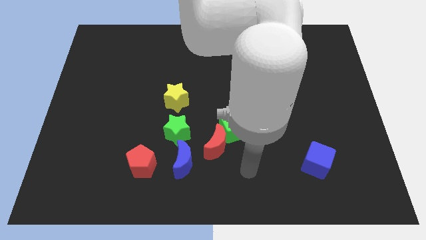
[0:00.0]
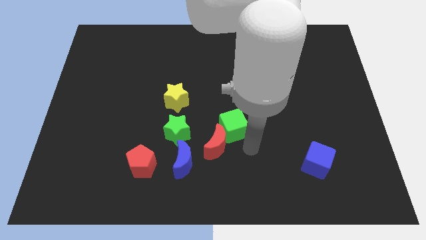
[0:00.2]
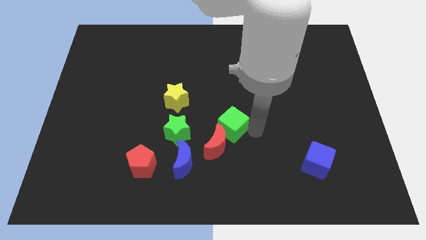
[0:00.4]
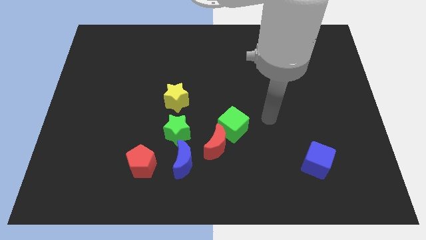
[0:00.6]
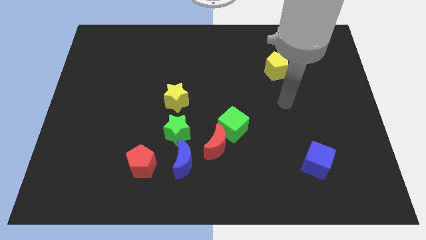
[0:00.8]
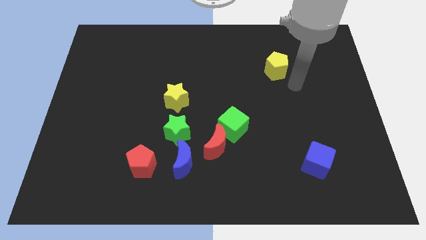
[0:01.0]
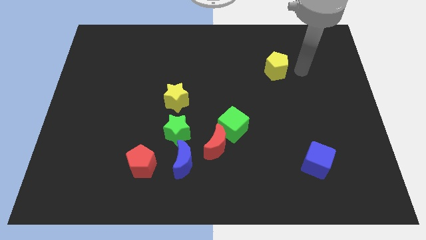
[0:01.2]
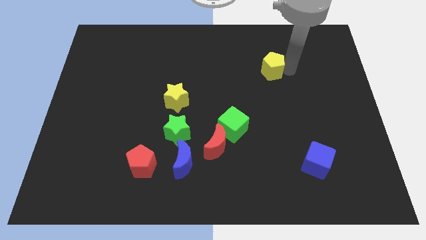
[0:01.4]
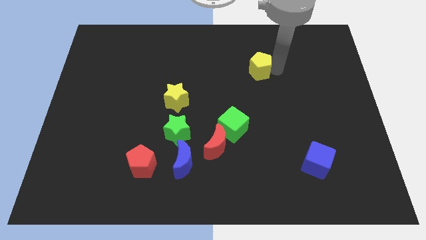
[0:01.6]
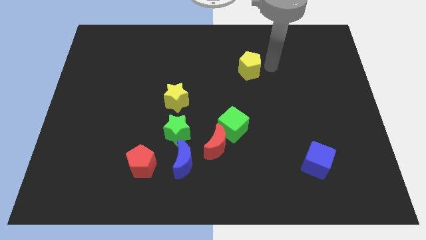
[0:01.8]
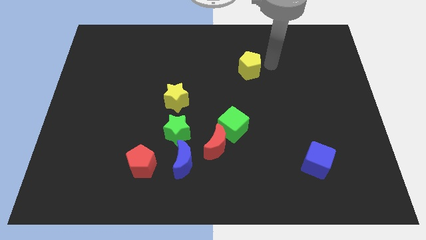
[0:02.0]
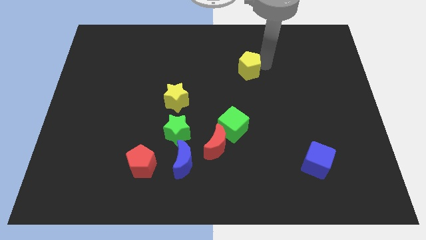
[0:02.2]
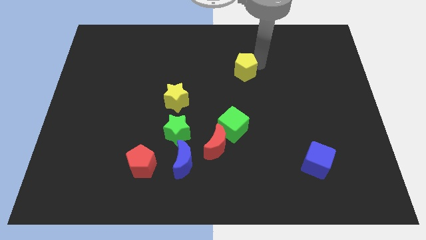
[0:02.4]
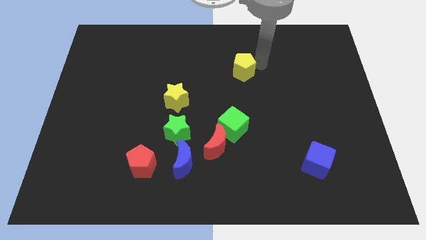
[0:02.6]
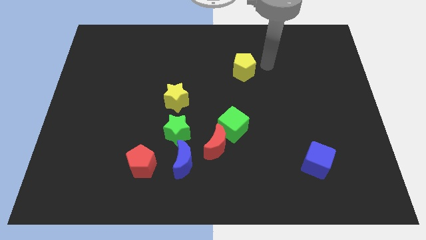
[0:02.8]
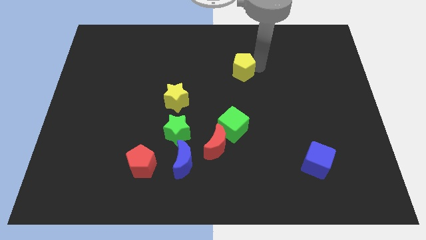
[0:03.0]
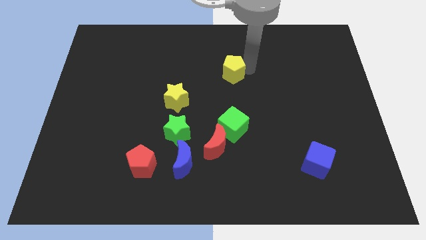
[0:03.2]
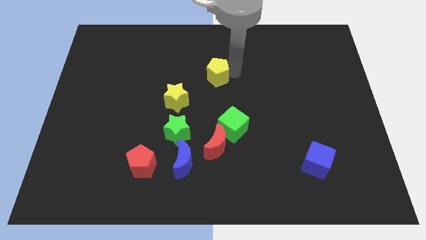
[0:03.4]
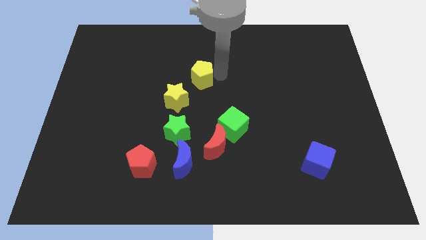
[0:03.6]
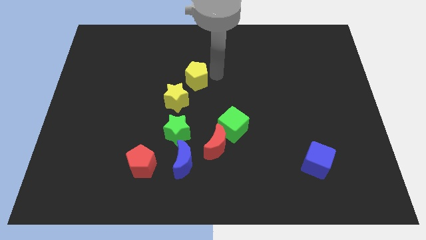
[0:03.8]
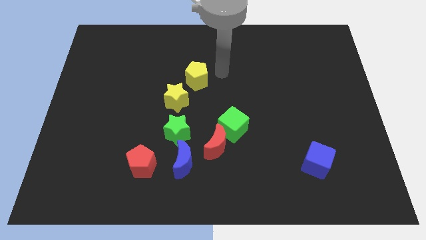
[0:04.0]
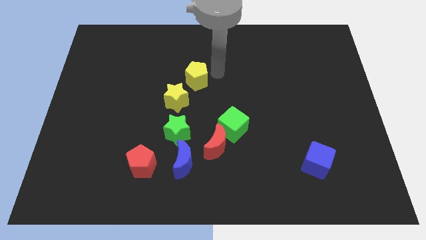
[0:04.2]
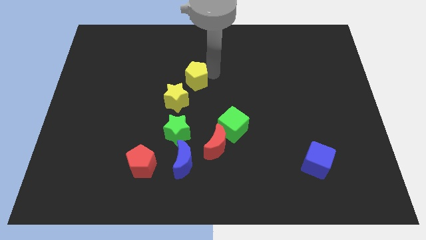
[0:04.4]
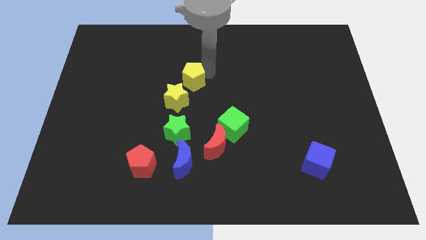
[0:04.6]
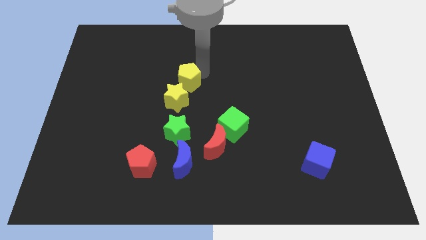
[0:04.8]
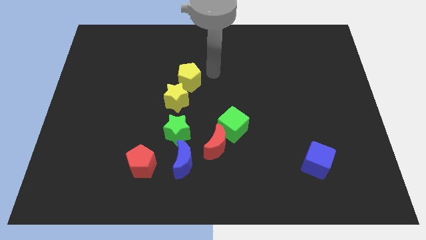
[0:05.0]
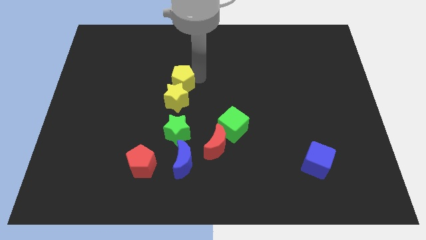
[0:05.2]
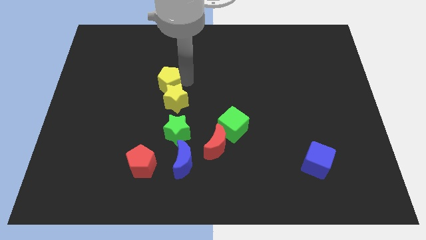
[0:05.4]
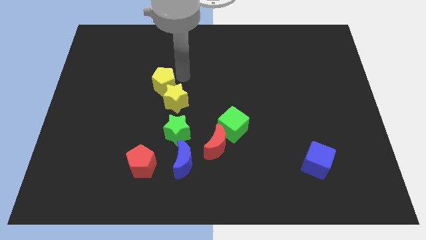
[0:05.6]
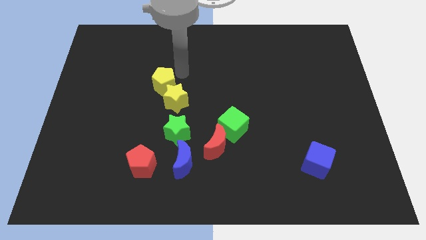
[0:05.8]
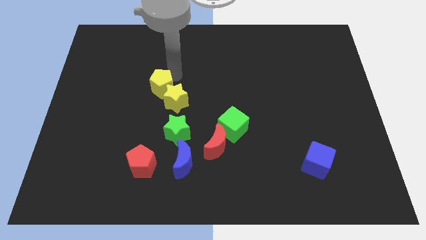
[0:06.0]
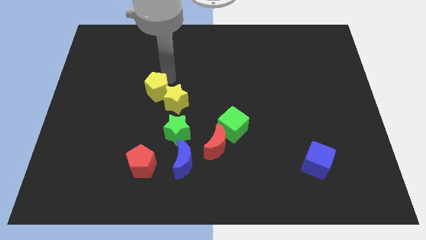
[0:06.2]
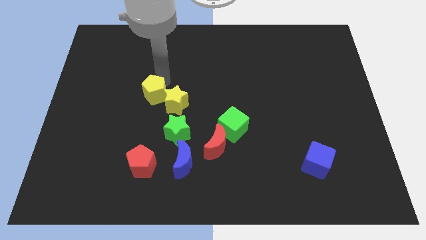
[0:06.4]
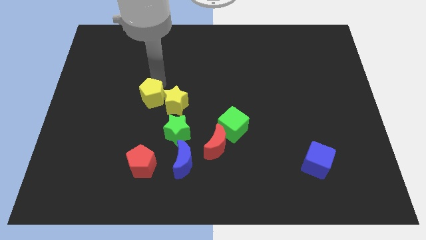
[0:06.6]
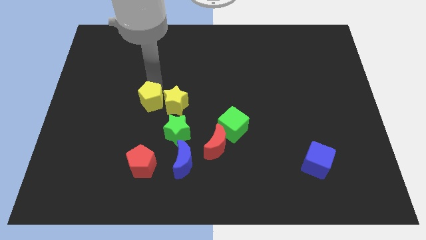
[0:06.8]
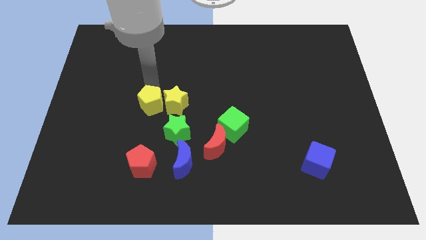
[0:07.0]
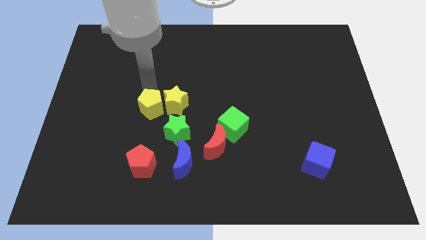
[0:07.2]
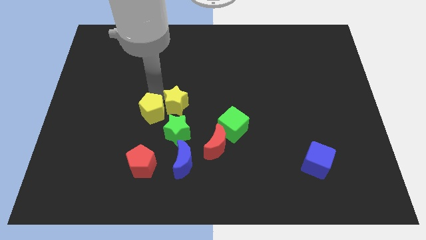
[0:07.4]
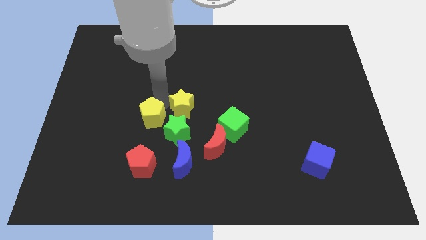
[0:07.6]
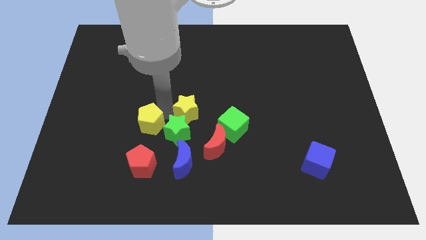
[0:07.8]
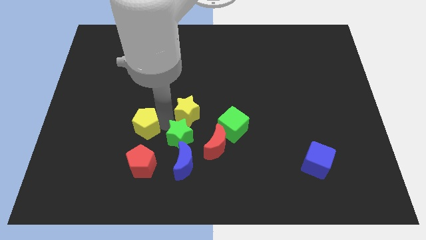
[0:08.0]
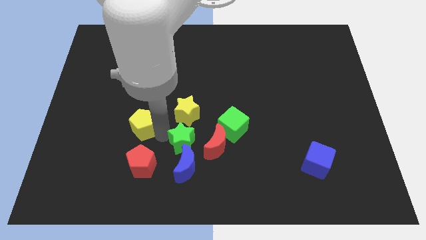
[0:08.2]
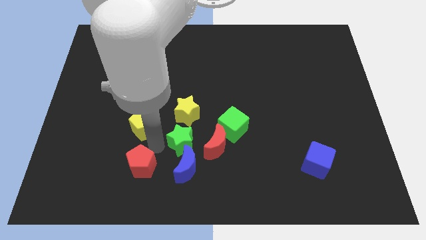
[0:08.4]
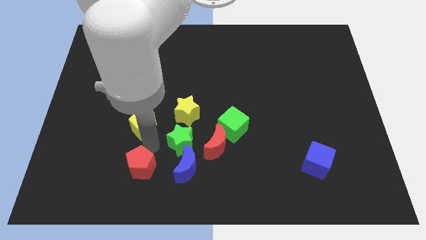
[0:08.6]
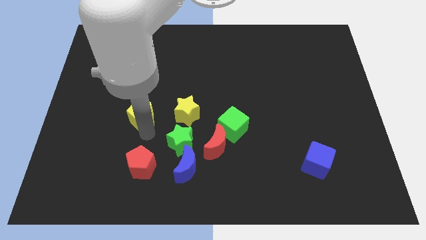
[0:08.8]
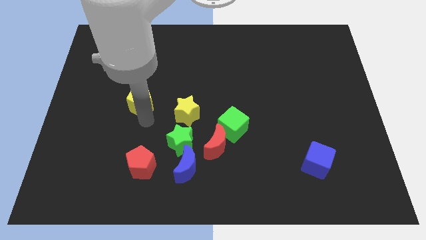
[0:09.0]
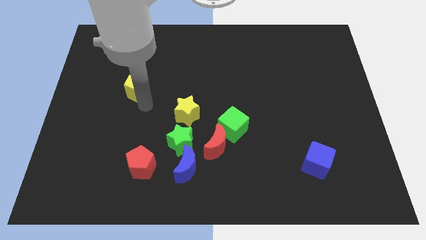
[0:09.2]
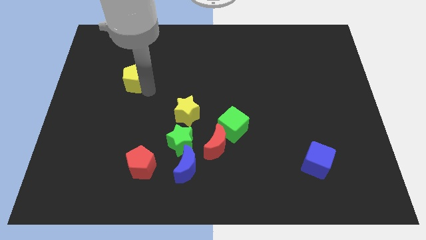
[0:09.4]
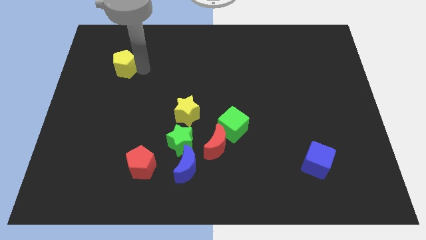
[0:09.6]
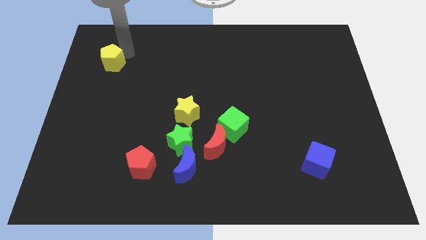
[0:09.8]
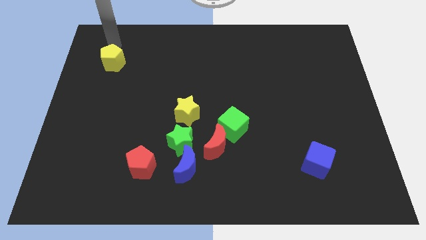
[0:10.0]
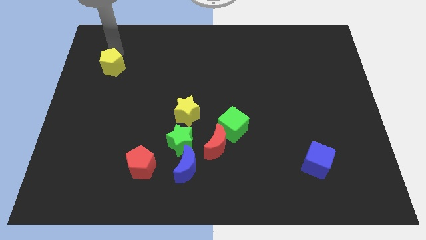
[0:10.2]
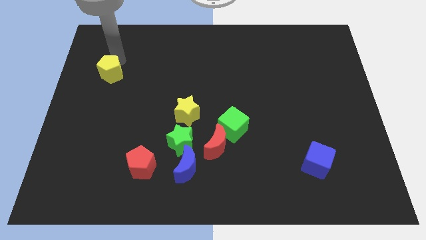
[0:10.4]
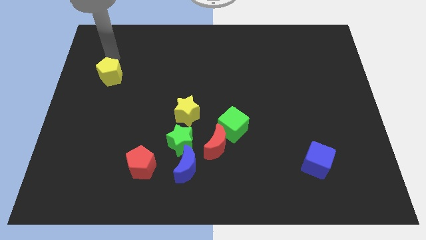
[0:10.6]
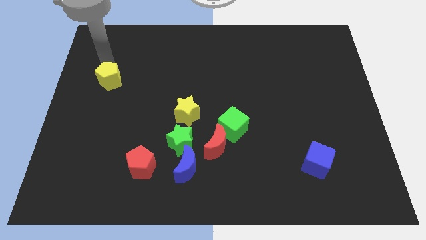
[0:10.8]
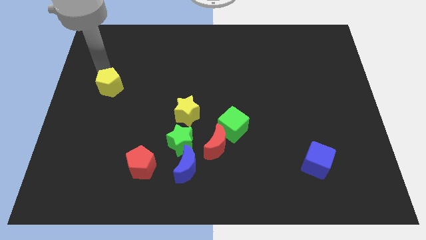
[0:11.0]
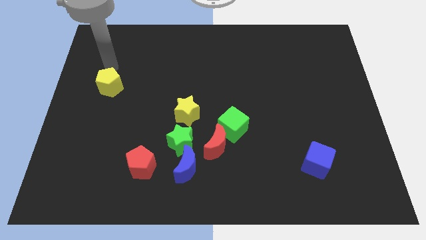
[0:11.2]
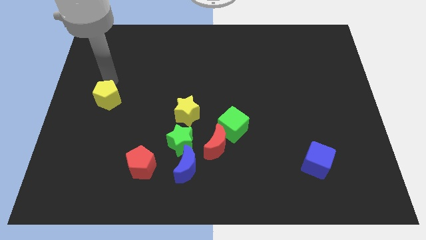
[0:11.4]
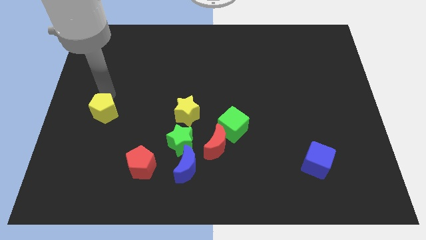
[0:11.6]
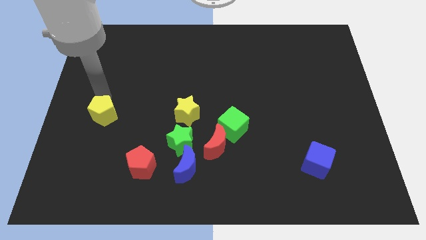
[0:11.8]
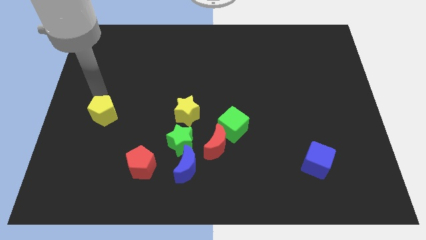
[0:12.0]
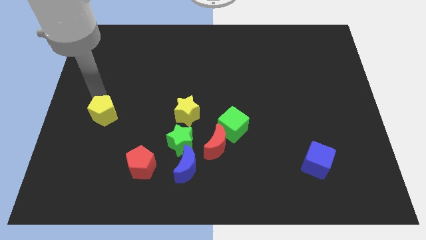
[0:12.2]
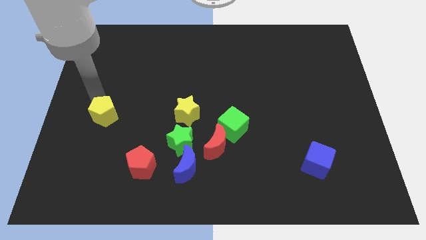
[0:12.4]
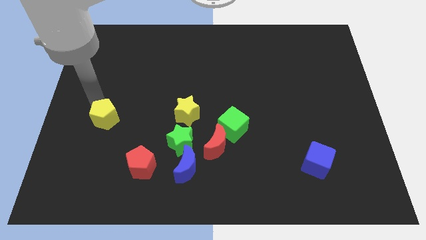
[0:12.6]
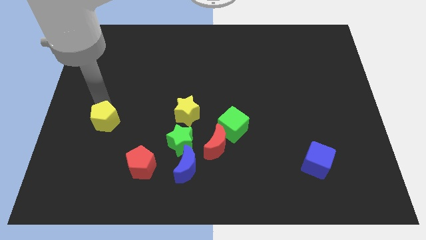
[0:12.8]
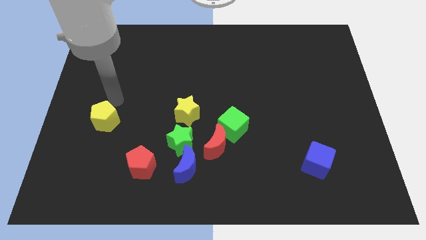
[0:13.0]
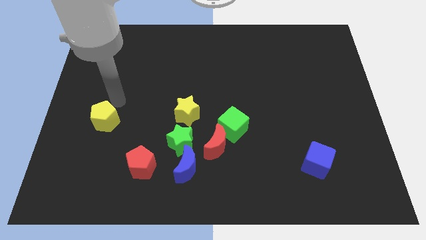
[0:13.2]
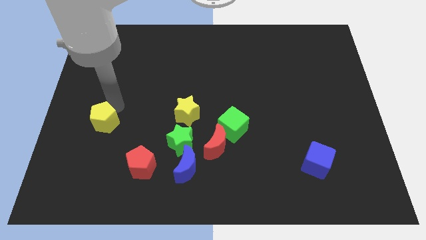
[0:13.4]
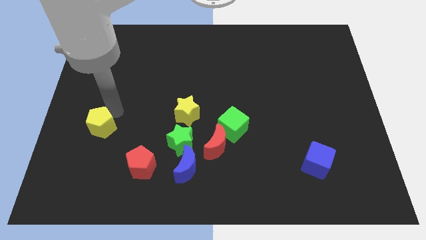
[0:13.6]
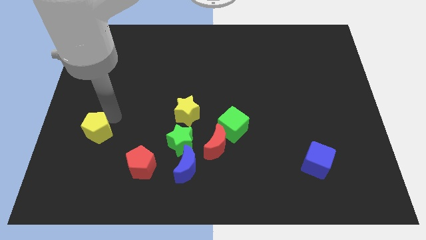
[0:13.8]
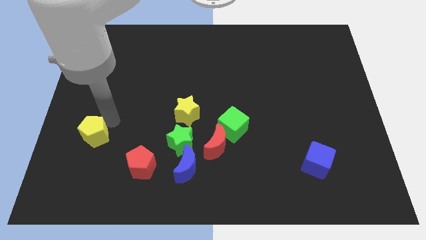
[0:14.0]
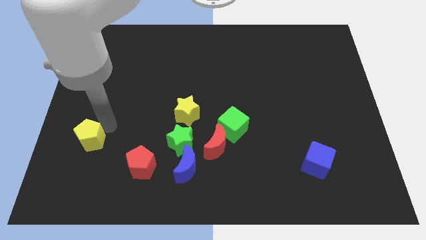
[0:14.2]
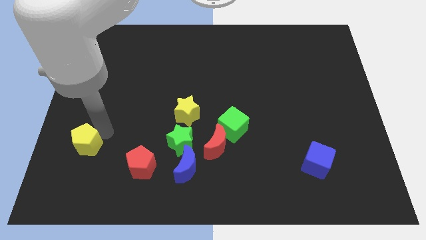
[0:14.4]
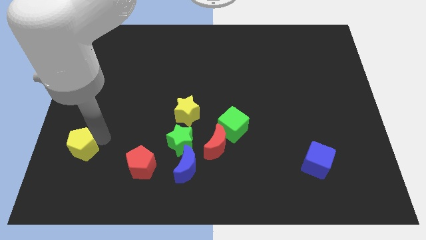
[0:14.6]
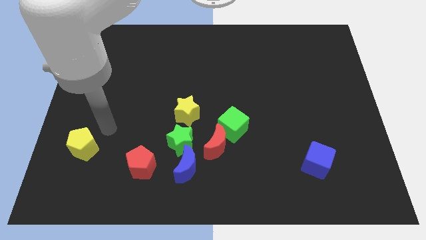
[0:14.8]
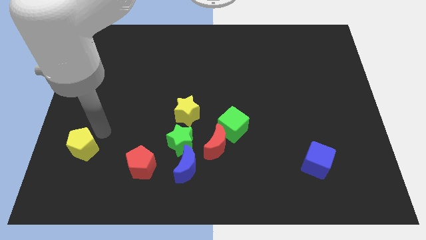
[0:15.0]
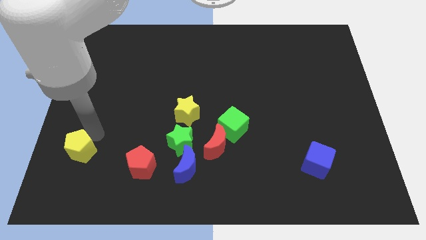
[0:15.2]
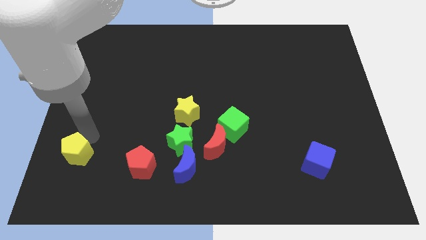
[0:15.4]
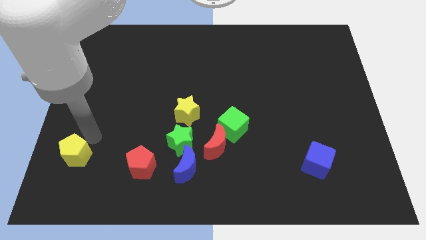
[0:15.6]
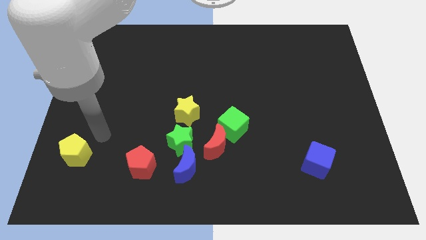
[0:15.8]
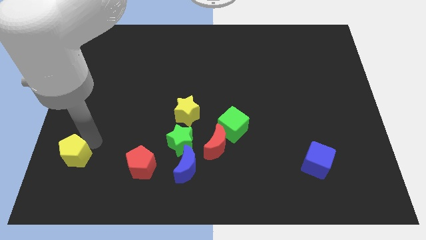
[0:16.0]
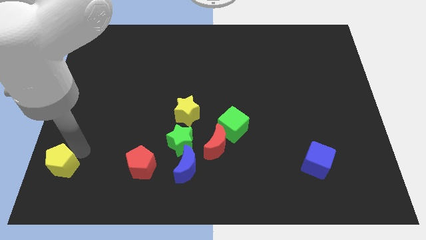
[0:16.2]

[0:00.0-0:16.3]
slide the yellow pentagon to the lower left corner
